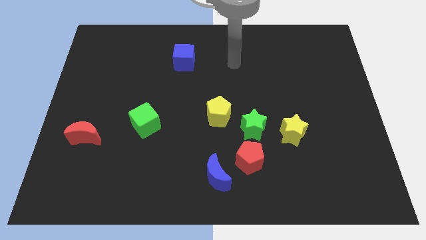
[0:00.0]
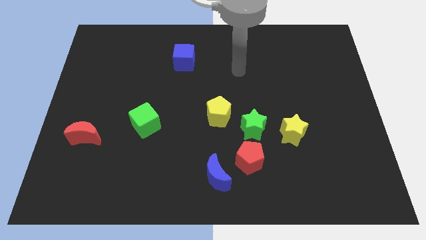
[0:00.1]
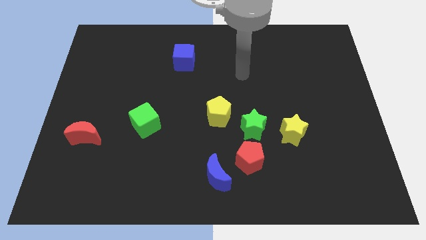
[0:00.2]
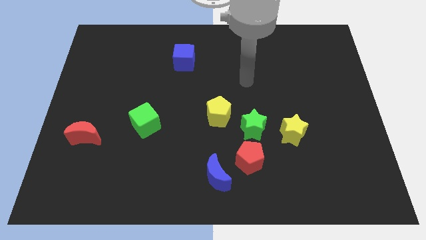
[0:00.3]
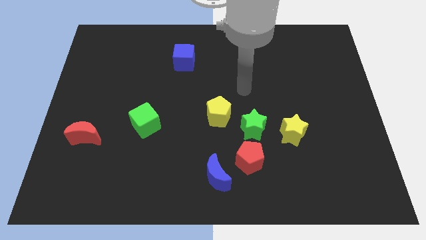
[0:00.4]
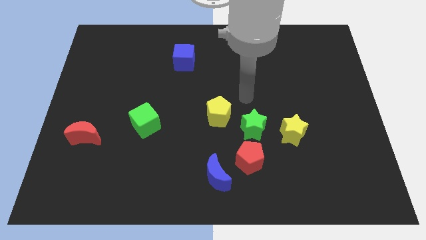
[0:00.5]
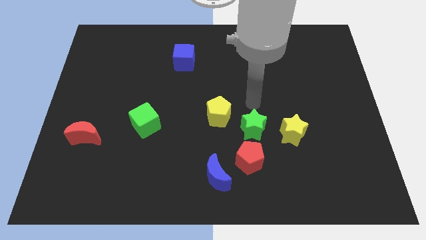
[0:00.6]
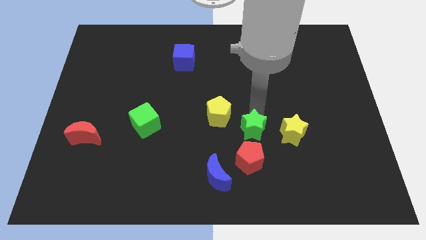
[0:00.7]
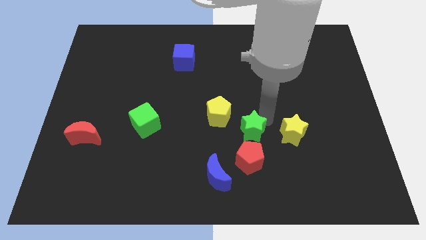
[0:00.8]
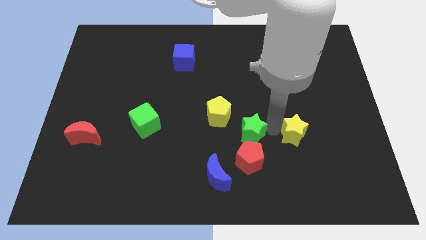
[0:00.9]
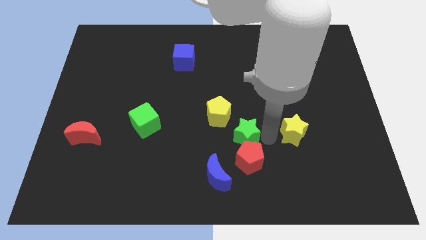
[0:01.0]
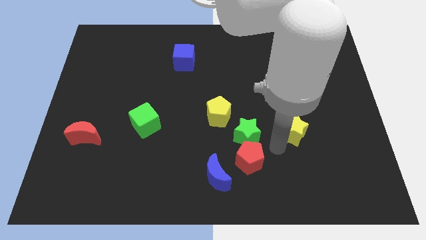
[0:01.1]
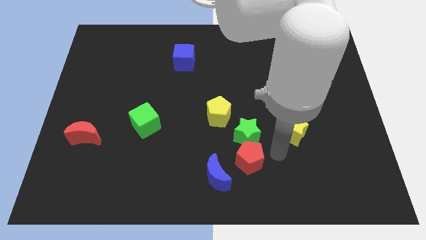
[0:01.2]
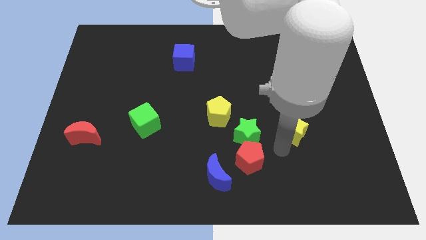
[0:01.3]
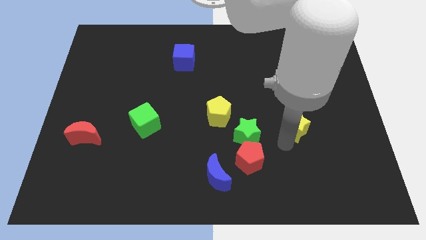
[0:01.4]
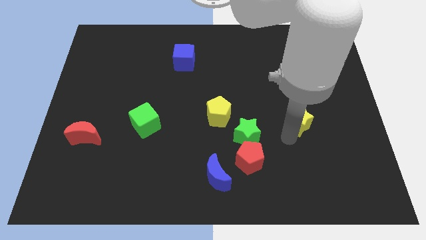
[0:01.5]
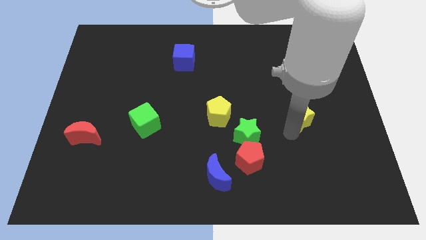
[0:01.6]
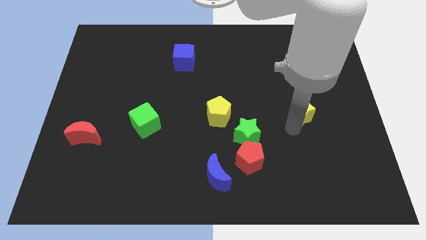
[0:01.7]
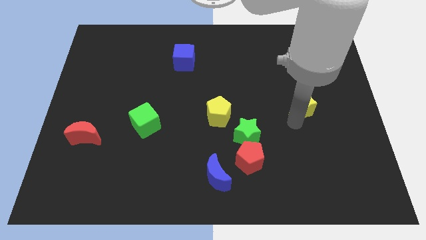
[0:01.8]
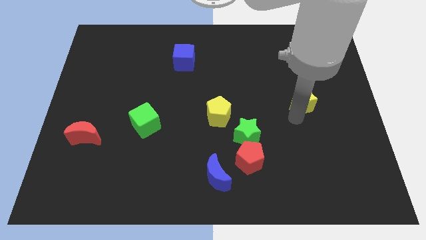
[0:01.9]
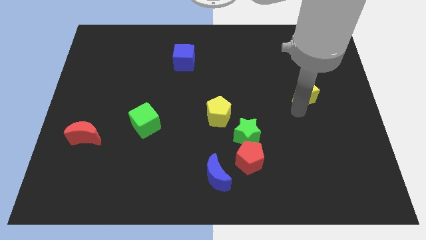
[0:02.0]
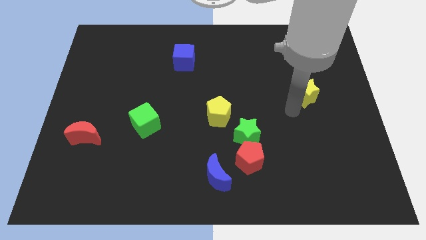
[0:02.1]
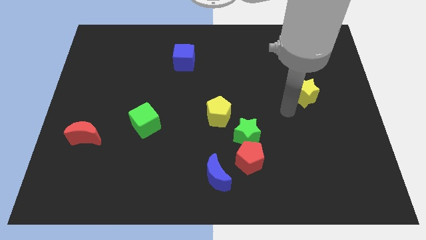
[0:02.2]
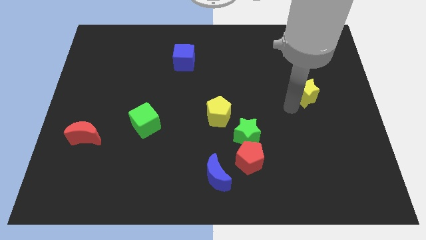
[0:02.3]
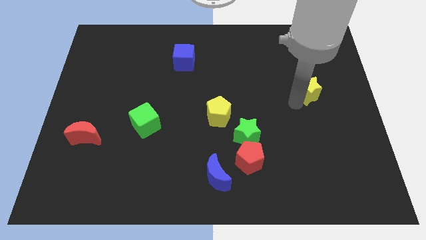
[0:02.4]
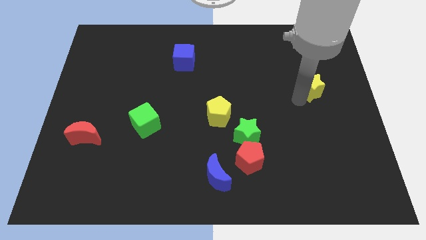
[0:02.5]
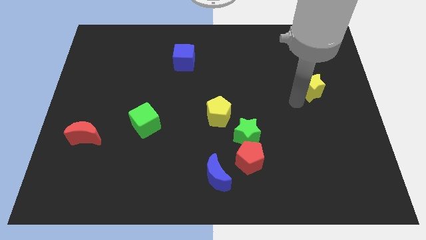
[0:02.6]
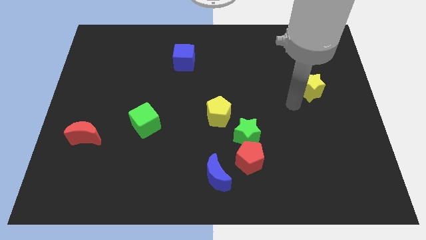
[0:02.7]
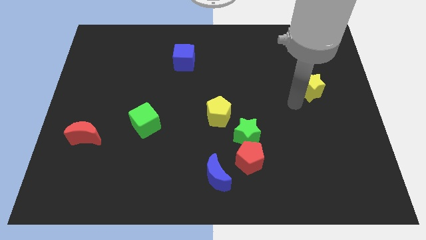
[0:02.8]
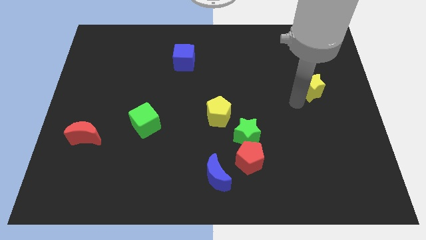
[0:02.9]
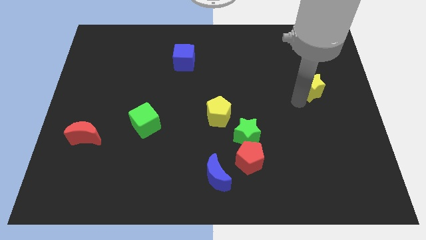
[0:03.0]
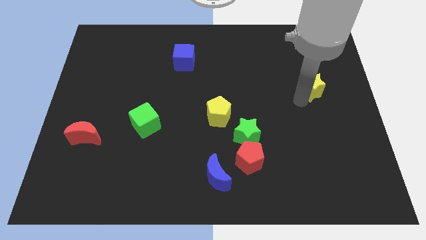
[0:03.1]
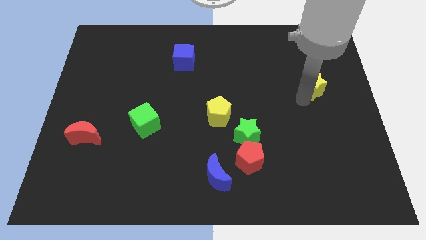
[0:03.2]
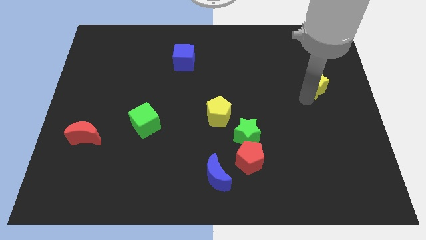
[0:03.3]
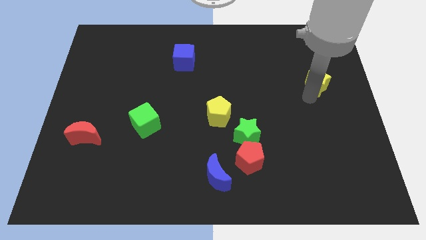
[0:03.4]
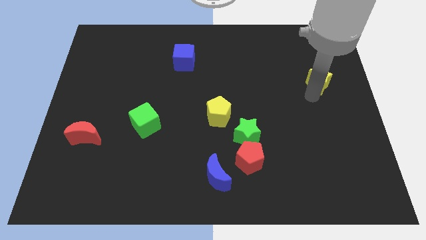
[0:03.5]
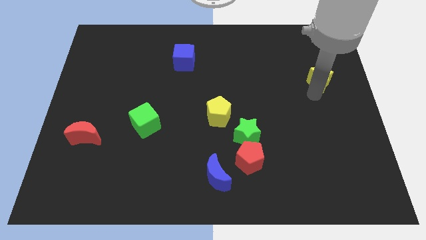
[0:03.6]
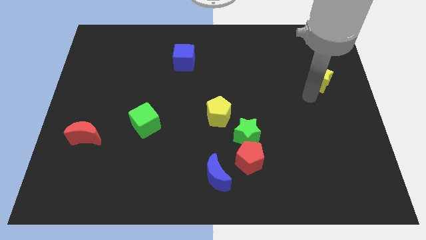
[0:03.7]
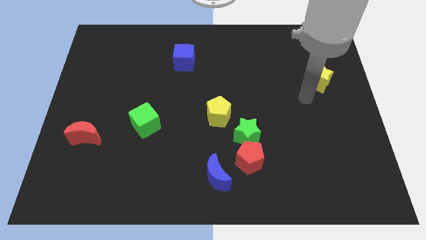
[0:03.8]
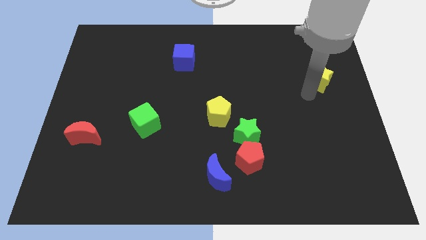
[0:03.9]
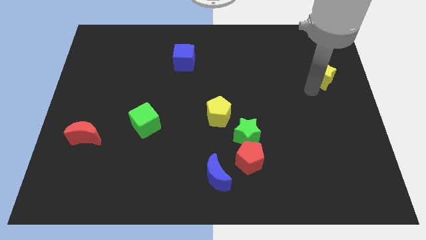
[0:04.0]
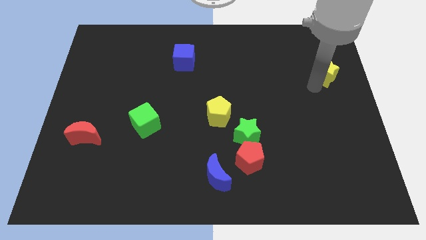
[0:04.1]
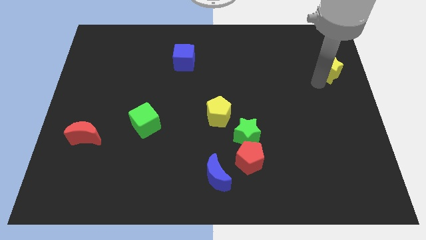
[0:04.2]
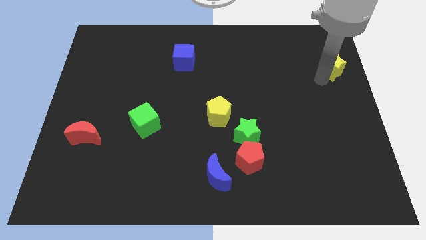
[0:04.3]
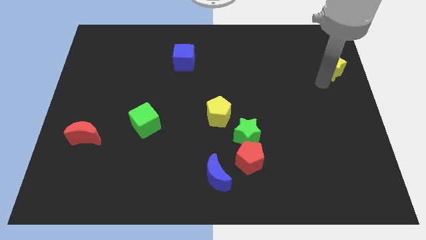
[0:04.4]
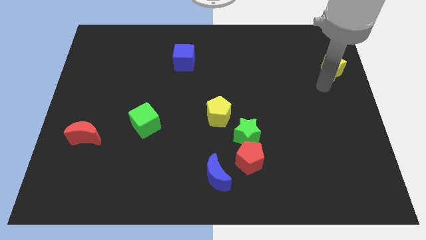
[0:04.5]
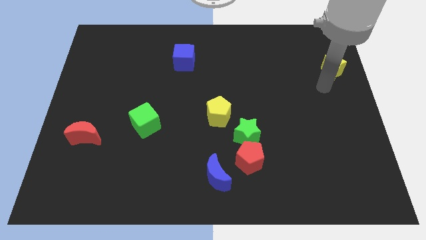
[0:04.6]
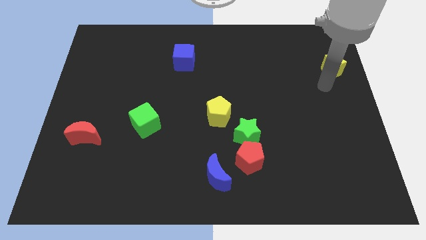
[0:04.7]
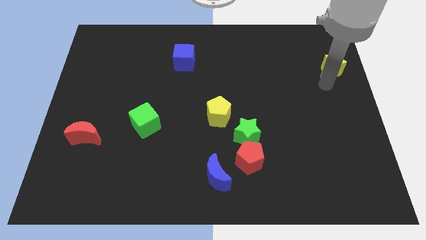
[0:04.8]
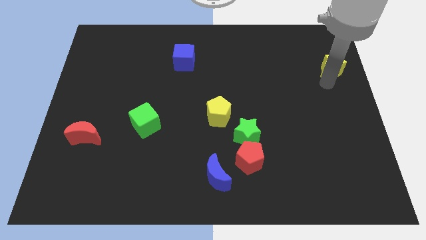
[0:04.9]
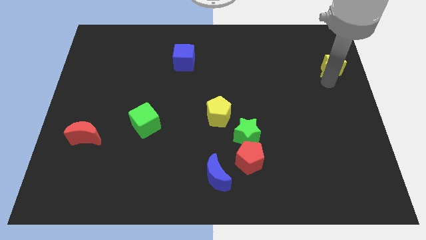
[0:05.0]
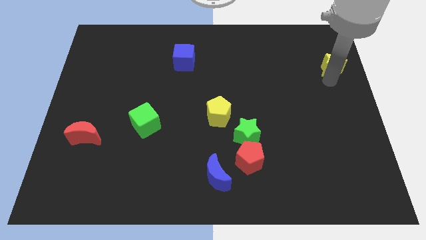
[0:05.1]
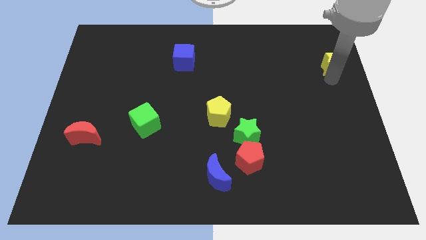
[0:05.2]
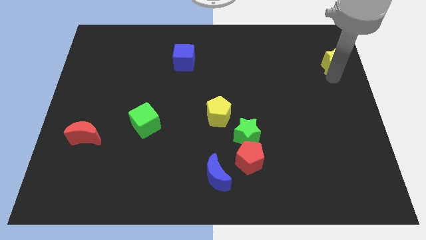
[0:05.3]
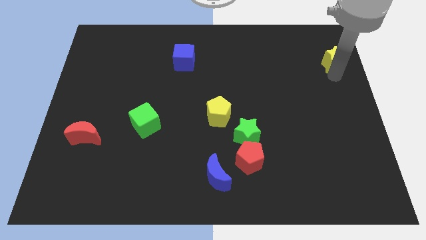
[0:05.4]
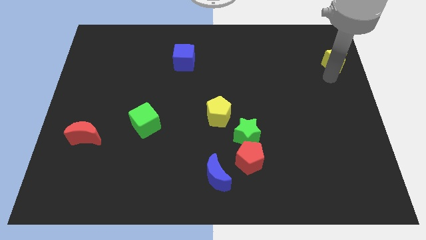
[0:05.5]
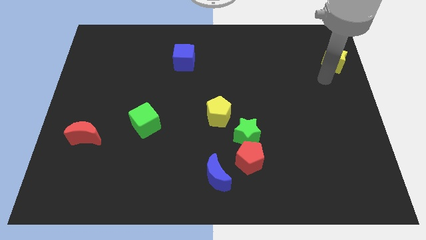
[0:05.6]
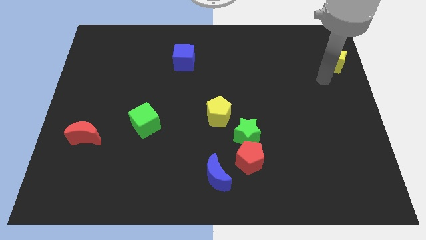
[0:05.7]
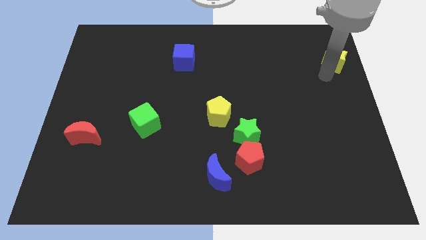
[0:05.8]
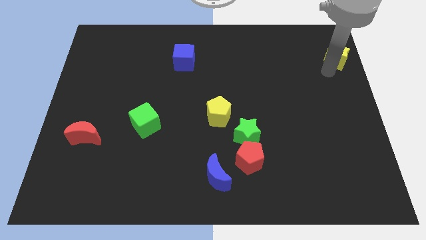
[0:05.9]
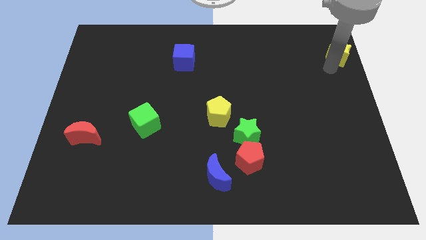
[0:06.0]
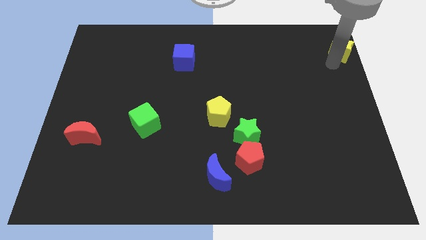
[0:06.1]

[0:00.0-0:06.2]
push the yellow star to the top right
